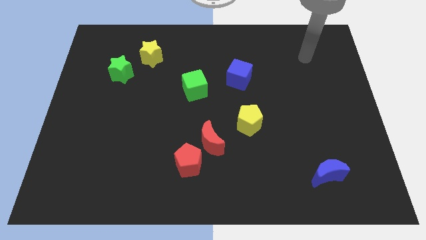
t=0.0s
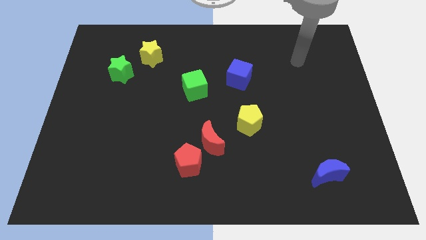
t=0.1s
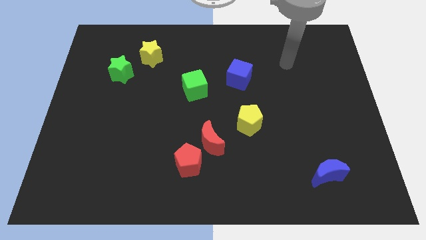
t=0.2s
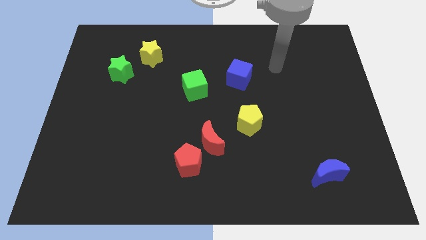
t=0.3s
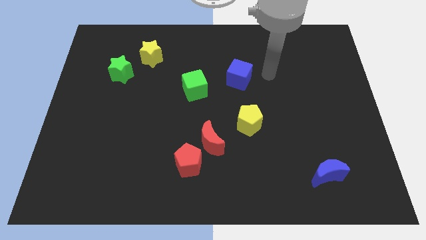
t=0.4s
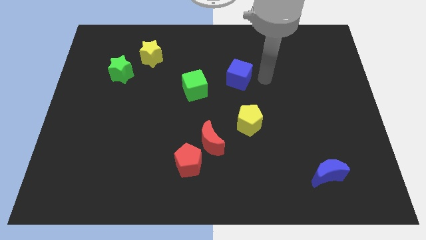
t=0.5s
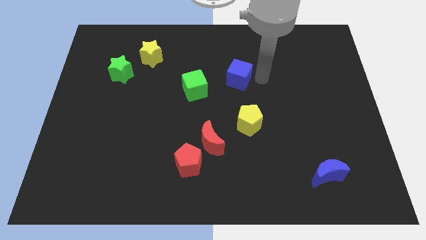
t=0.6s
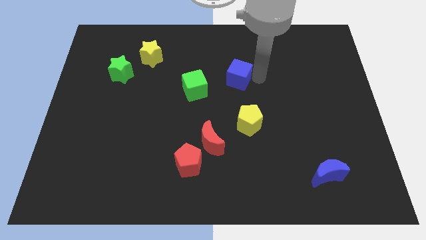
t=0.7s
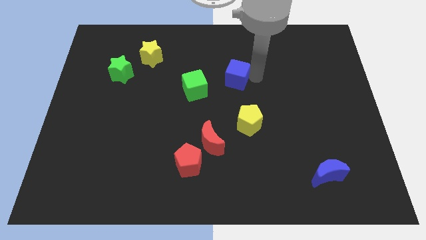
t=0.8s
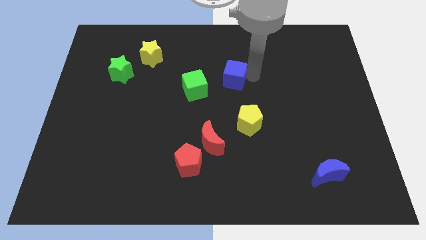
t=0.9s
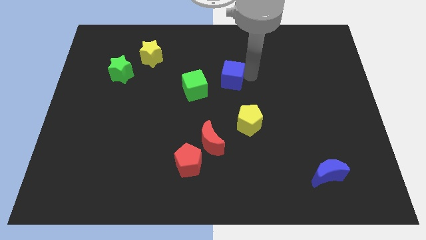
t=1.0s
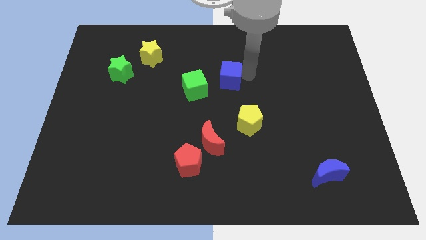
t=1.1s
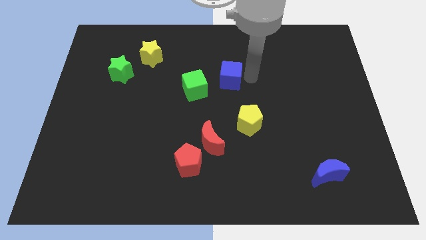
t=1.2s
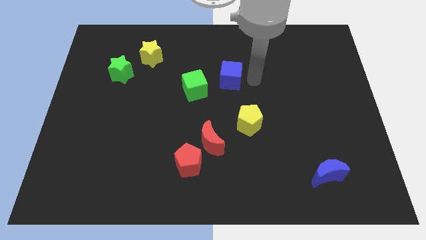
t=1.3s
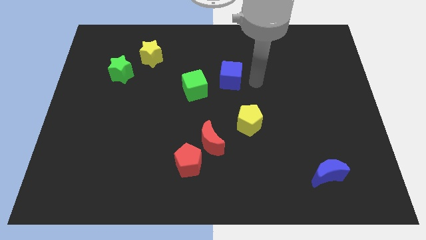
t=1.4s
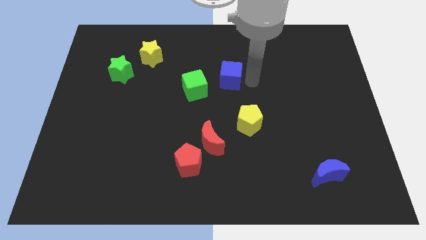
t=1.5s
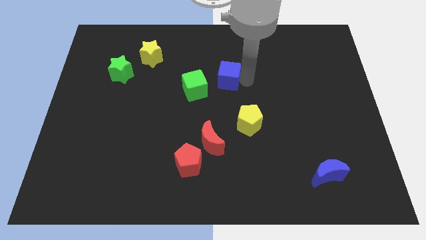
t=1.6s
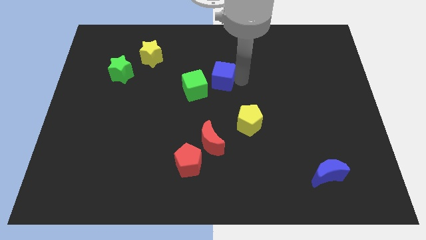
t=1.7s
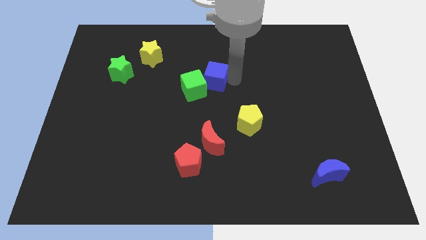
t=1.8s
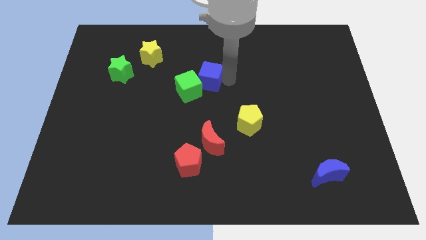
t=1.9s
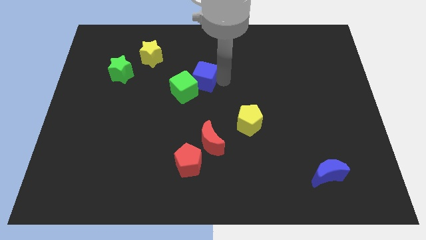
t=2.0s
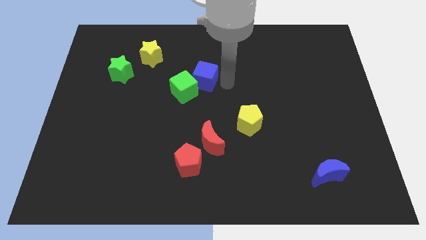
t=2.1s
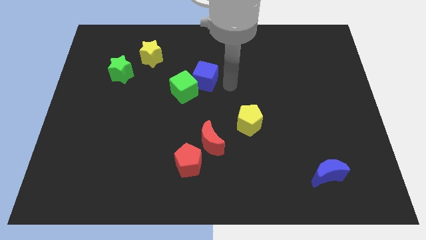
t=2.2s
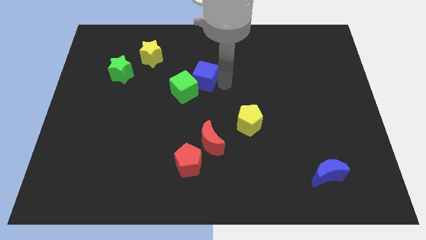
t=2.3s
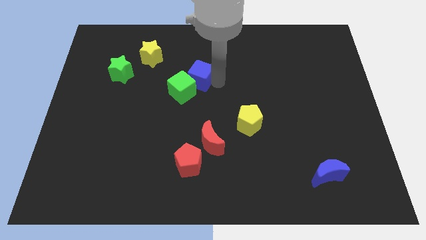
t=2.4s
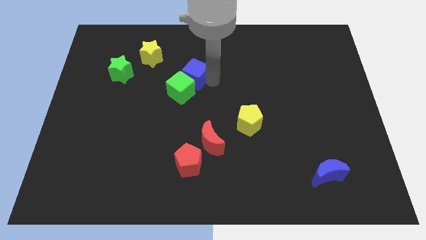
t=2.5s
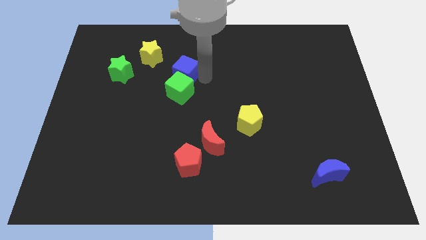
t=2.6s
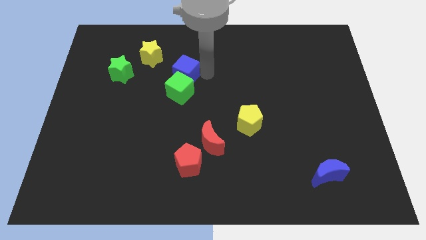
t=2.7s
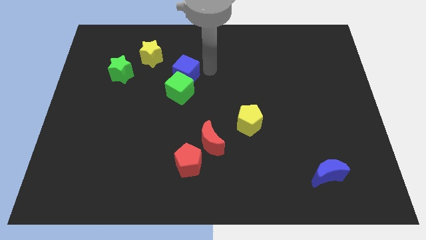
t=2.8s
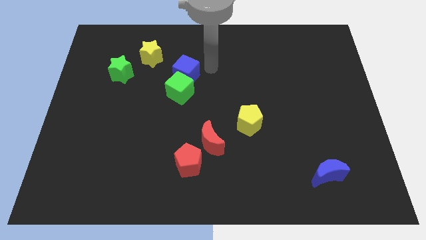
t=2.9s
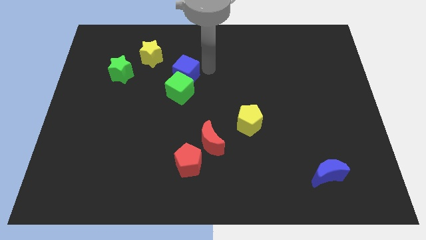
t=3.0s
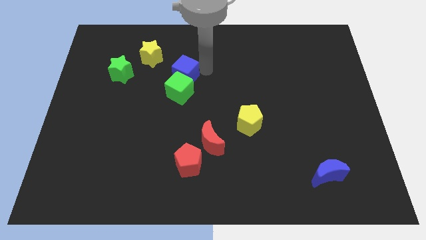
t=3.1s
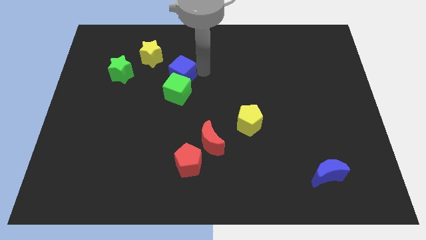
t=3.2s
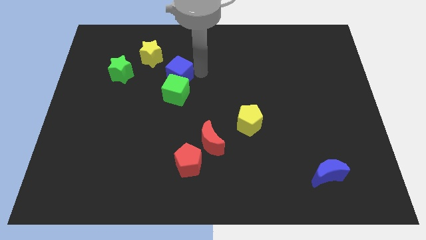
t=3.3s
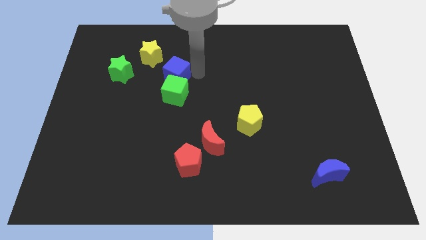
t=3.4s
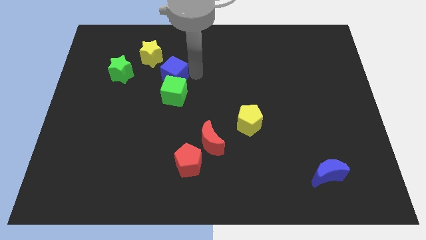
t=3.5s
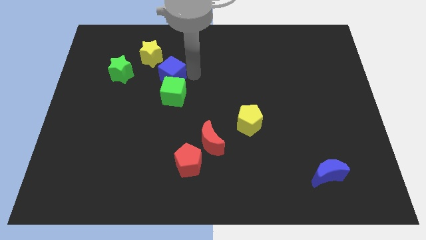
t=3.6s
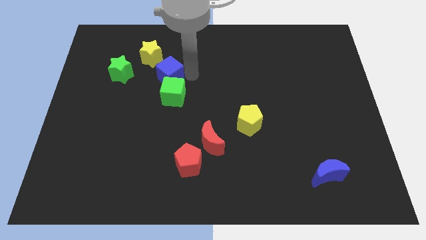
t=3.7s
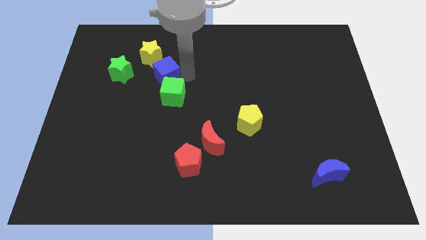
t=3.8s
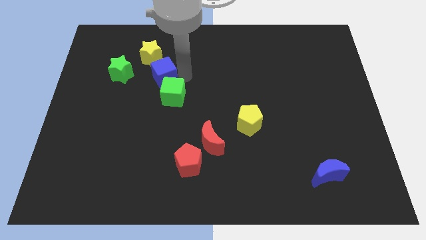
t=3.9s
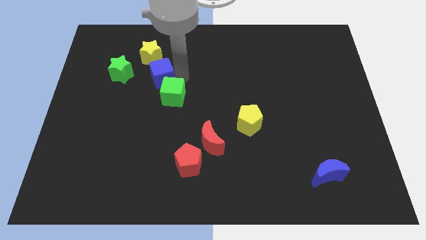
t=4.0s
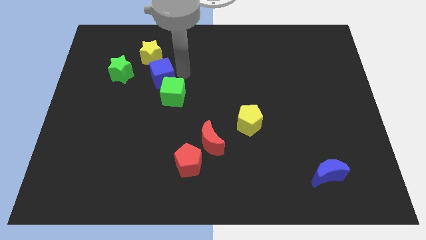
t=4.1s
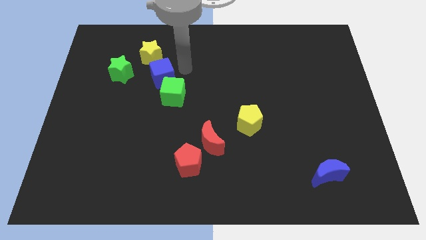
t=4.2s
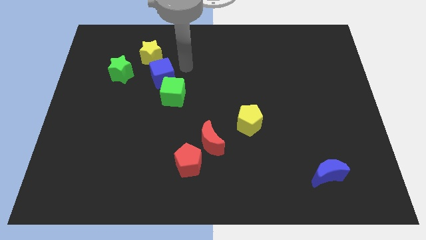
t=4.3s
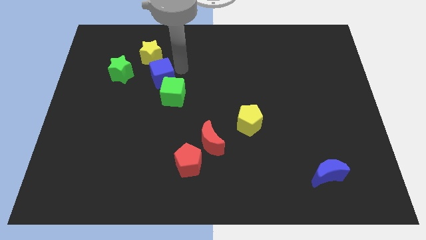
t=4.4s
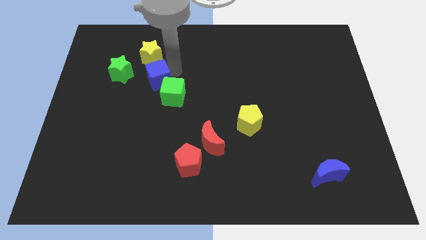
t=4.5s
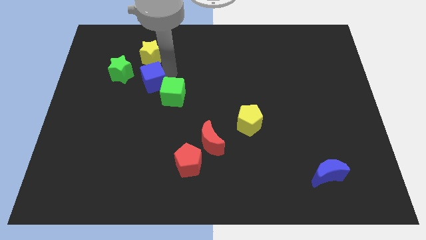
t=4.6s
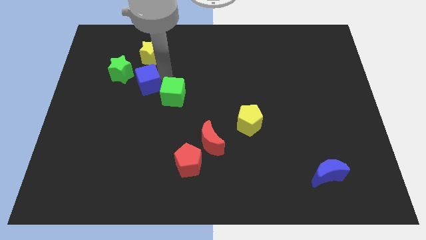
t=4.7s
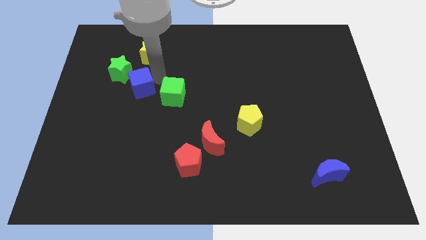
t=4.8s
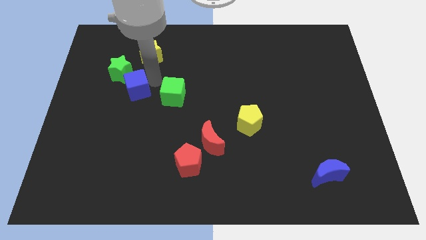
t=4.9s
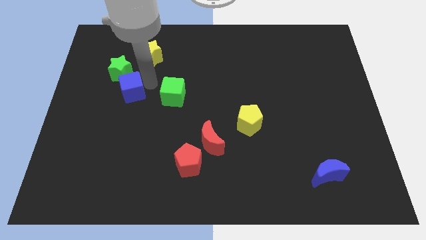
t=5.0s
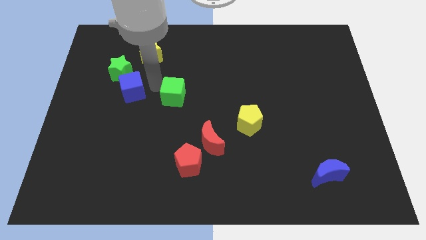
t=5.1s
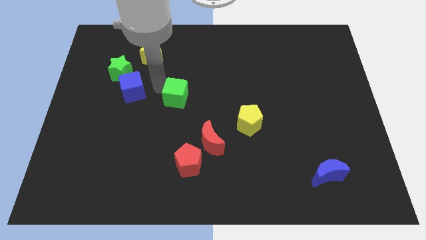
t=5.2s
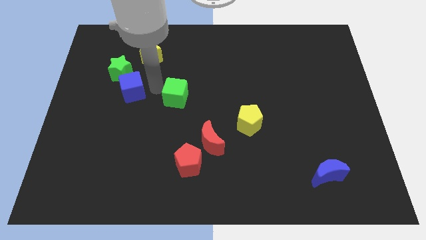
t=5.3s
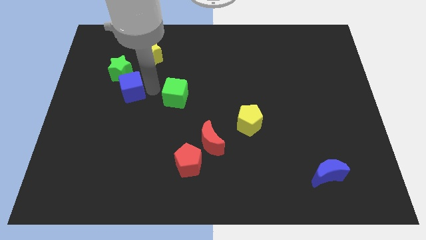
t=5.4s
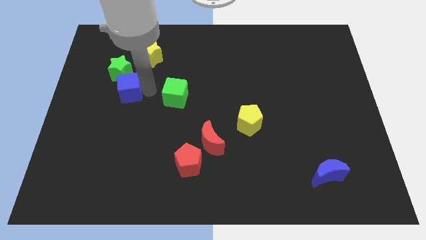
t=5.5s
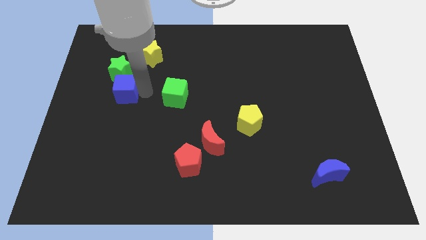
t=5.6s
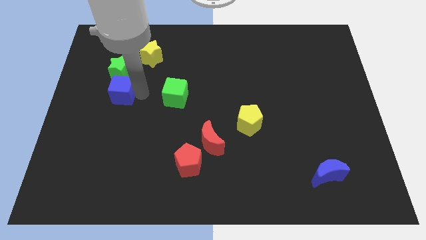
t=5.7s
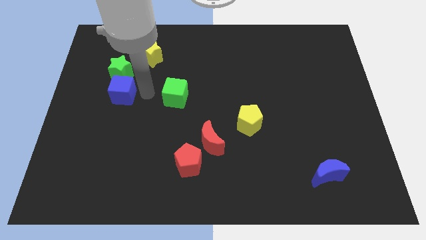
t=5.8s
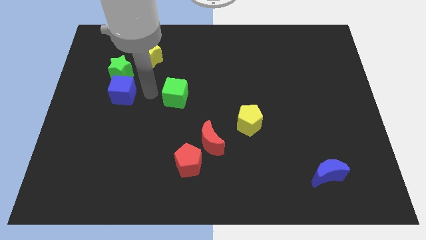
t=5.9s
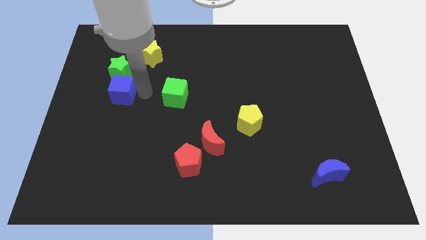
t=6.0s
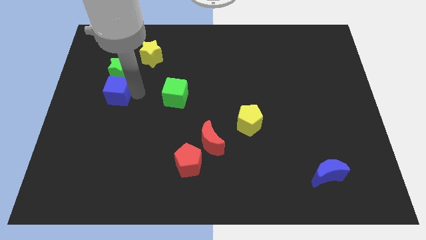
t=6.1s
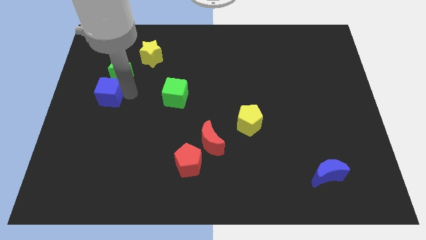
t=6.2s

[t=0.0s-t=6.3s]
push the blue cube to the center left
